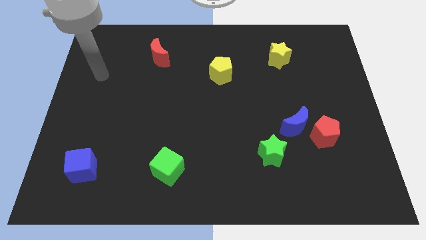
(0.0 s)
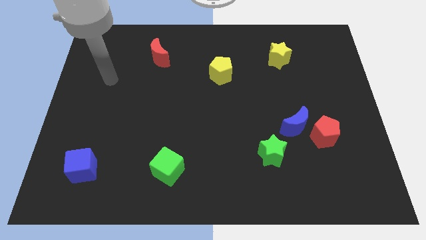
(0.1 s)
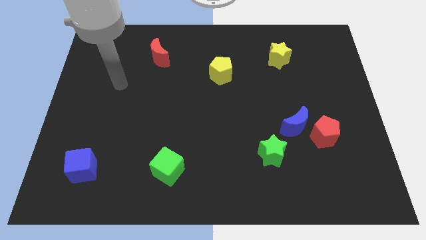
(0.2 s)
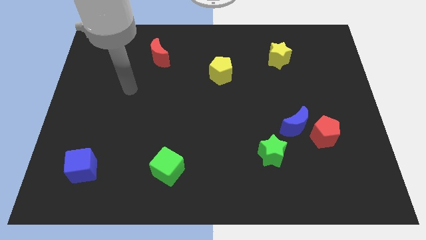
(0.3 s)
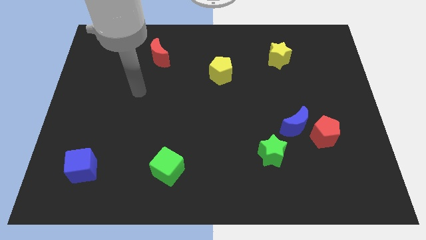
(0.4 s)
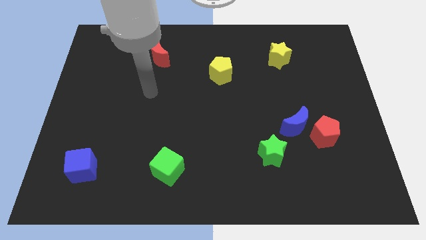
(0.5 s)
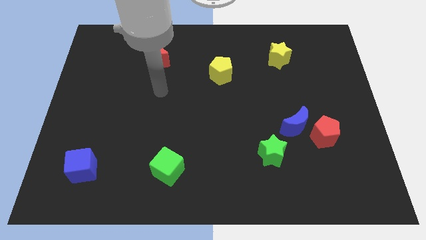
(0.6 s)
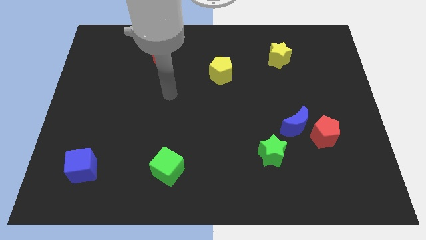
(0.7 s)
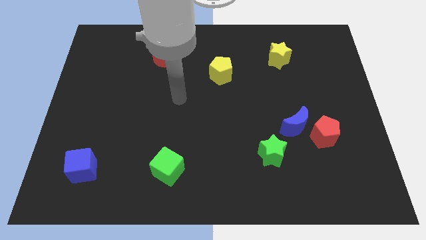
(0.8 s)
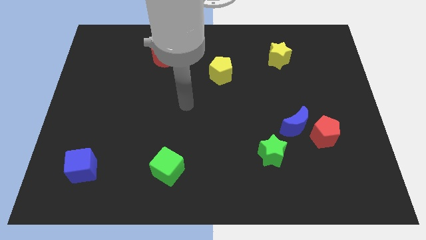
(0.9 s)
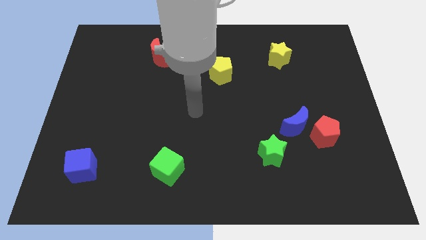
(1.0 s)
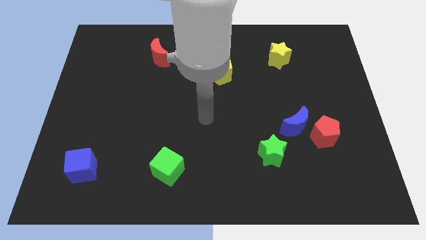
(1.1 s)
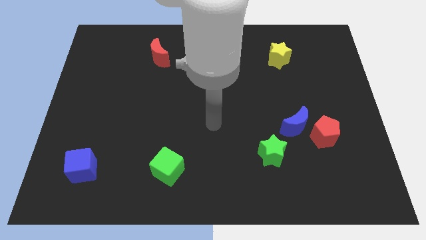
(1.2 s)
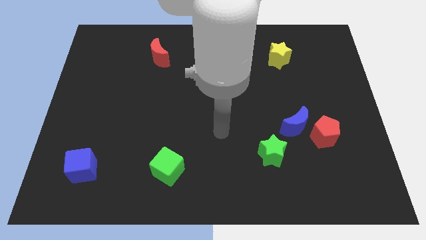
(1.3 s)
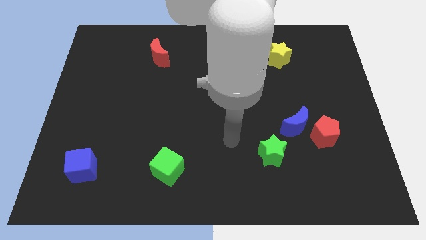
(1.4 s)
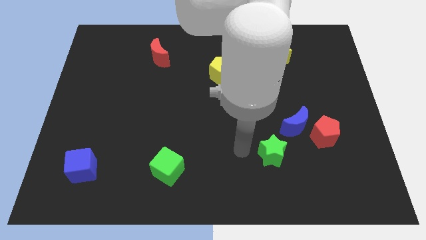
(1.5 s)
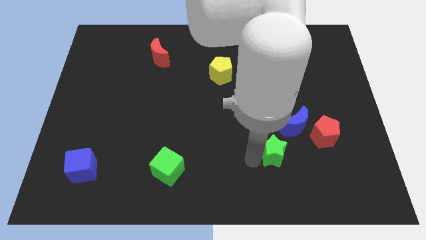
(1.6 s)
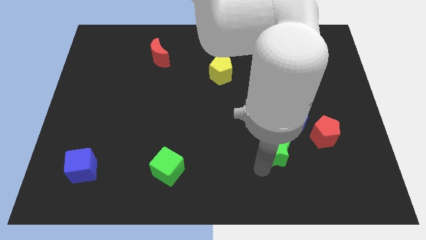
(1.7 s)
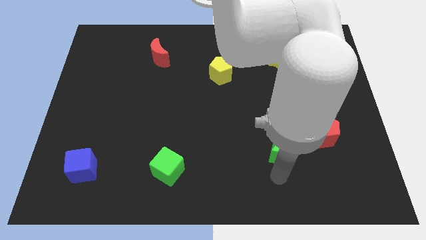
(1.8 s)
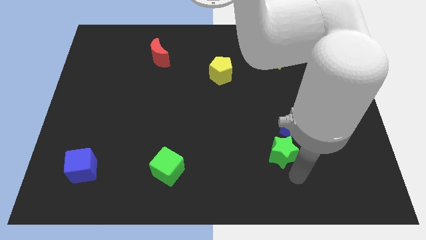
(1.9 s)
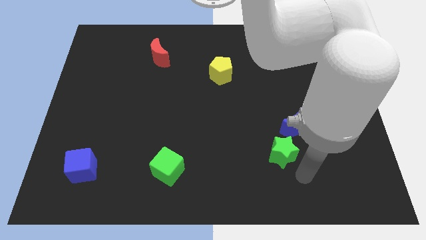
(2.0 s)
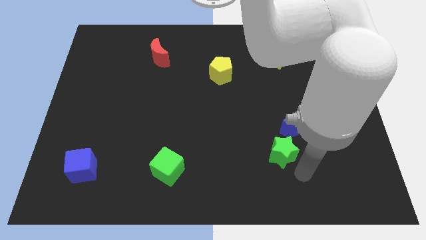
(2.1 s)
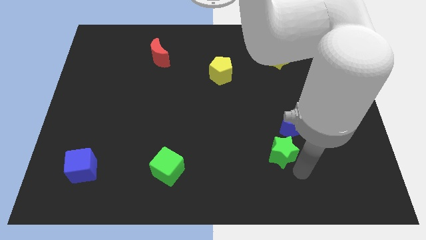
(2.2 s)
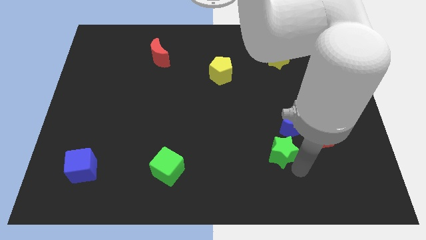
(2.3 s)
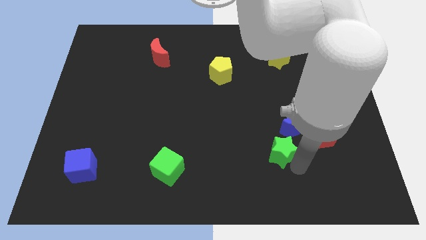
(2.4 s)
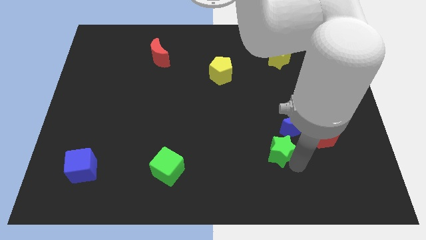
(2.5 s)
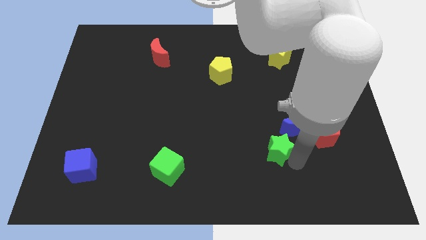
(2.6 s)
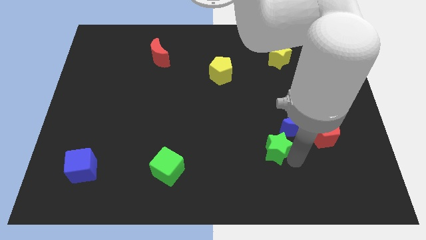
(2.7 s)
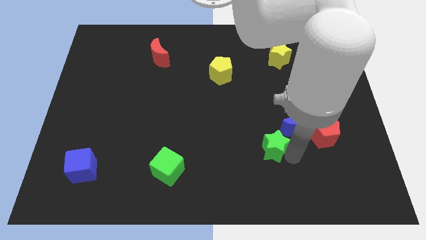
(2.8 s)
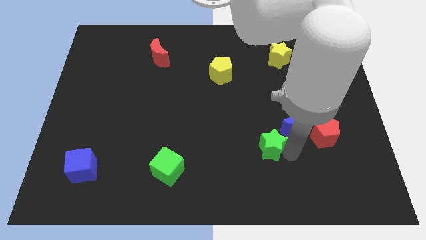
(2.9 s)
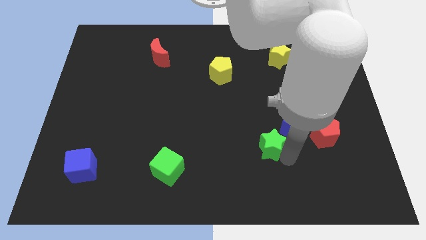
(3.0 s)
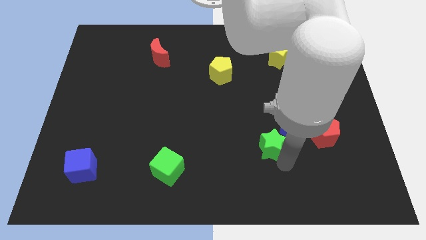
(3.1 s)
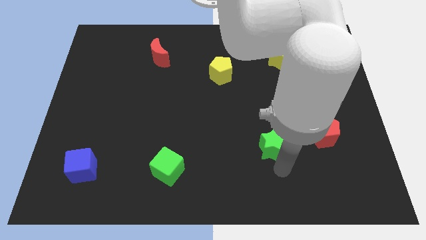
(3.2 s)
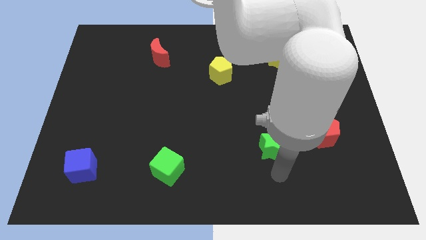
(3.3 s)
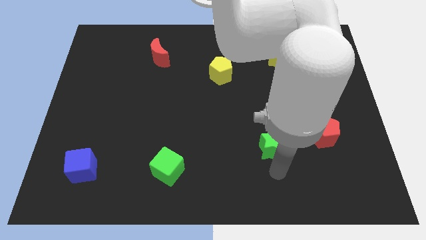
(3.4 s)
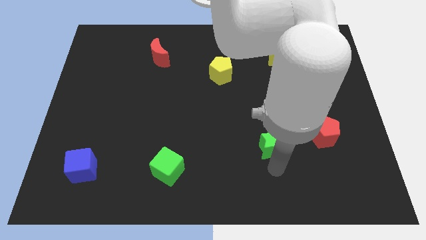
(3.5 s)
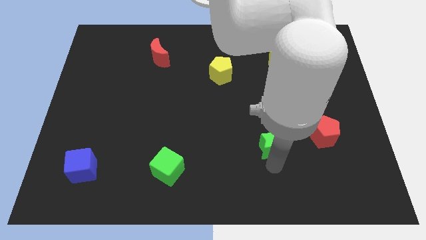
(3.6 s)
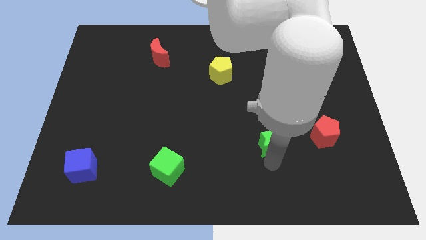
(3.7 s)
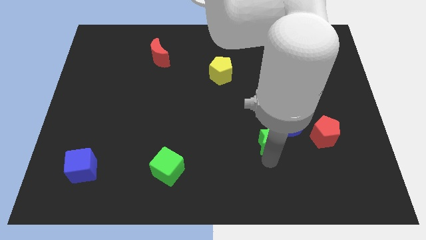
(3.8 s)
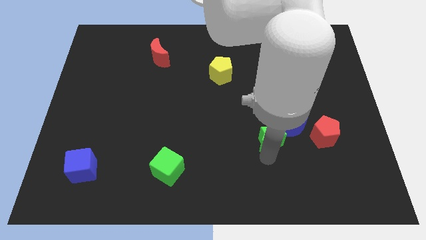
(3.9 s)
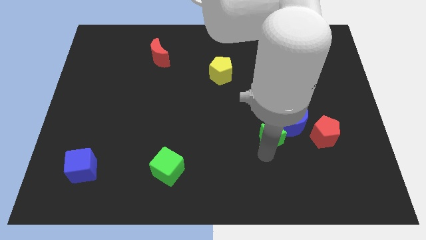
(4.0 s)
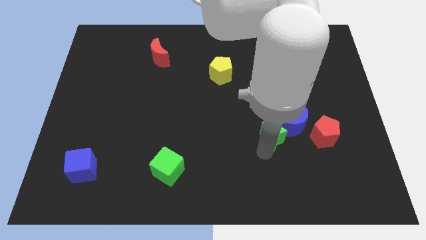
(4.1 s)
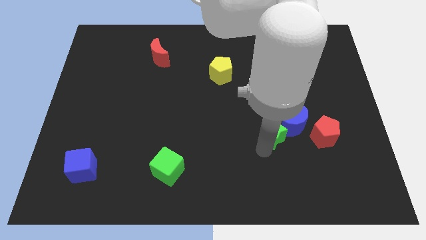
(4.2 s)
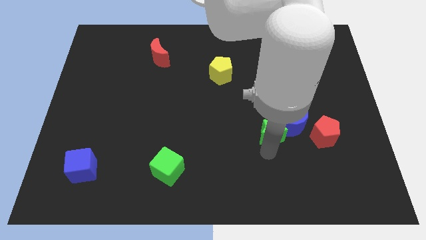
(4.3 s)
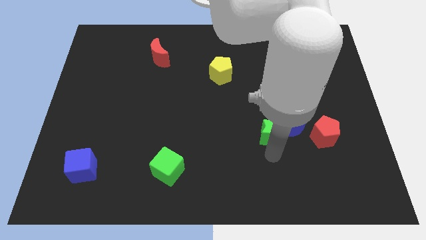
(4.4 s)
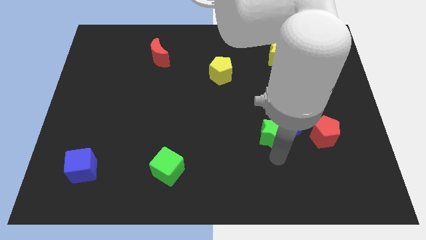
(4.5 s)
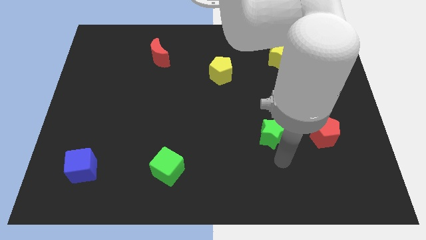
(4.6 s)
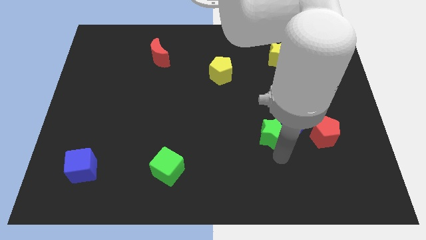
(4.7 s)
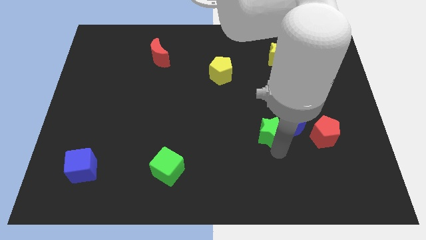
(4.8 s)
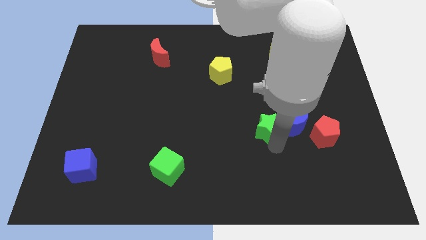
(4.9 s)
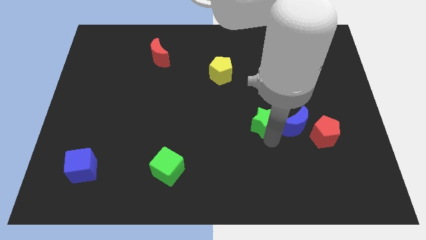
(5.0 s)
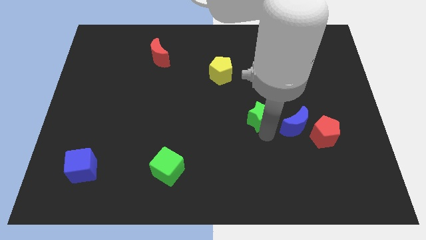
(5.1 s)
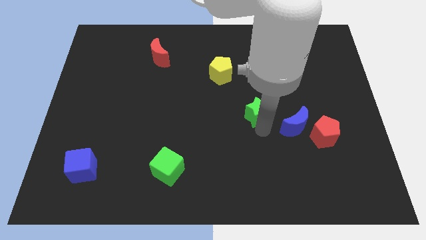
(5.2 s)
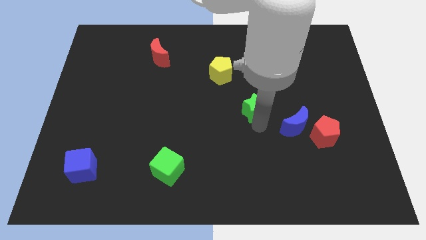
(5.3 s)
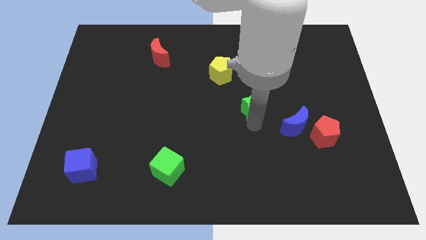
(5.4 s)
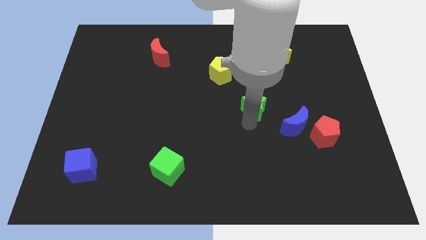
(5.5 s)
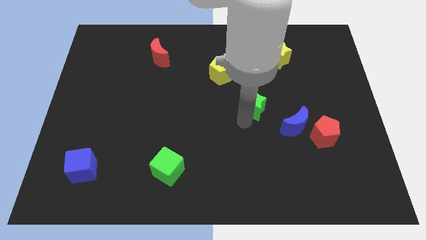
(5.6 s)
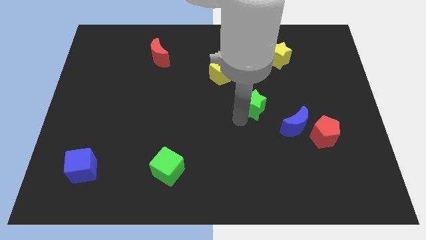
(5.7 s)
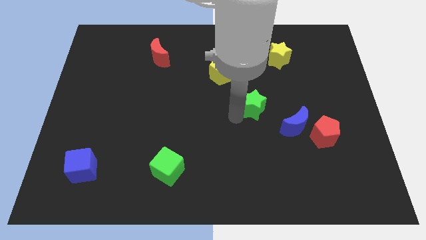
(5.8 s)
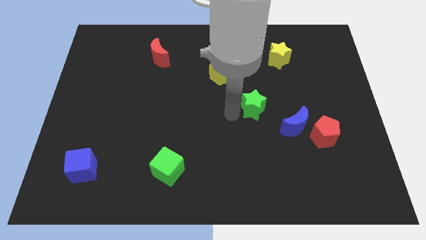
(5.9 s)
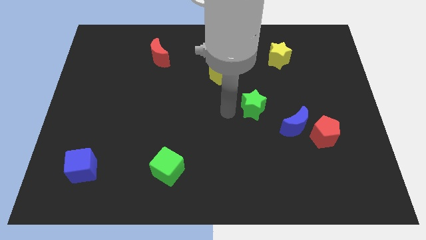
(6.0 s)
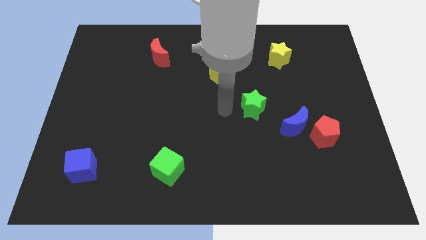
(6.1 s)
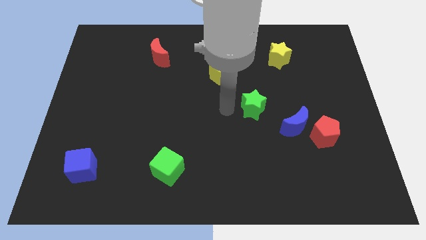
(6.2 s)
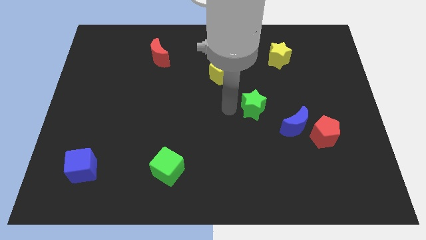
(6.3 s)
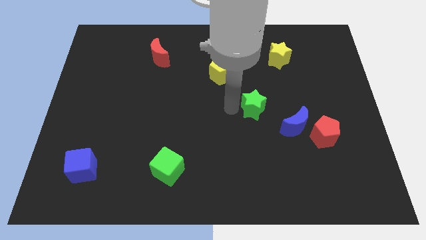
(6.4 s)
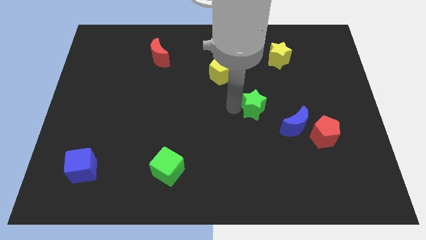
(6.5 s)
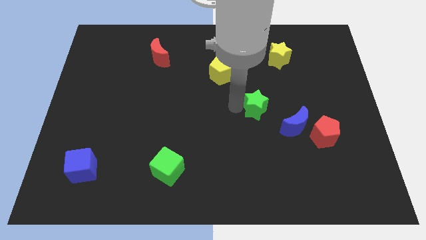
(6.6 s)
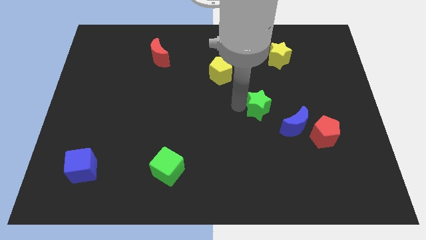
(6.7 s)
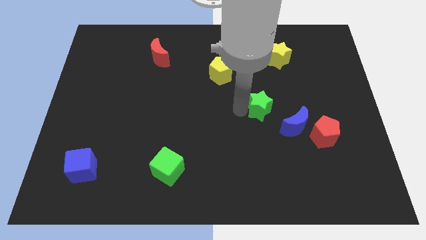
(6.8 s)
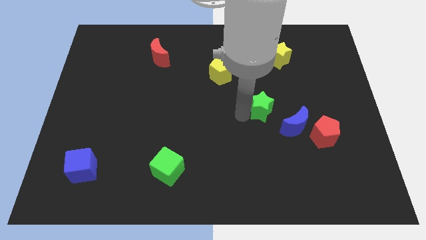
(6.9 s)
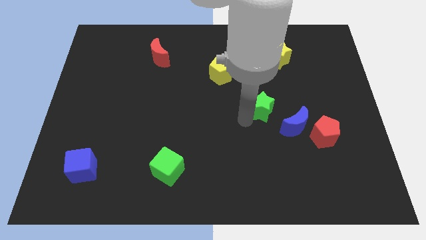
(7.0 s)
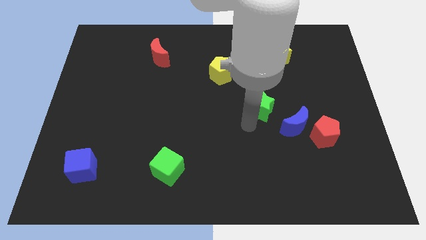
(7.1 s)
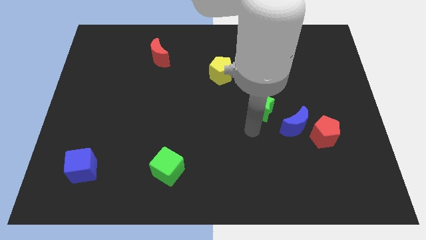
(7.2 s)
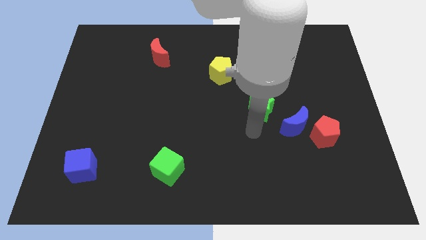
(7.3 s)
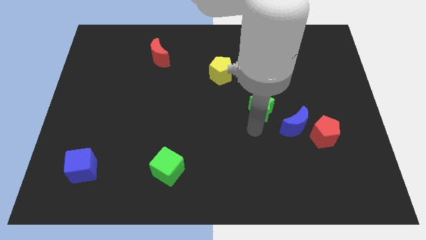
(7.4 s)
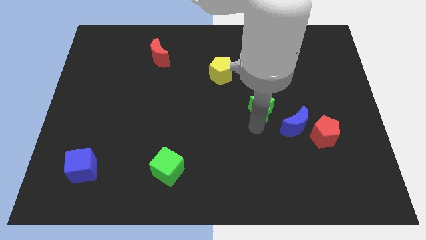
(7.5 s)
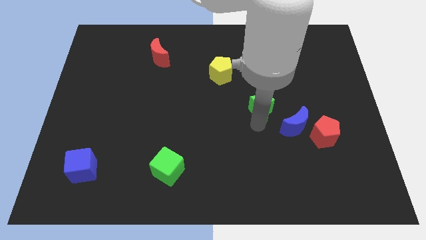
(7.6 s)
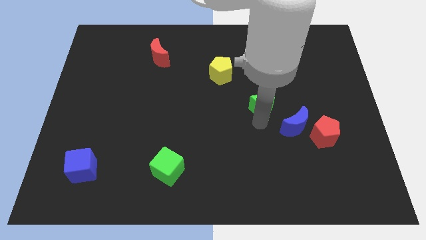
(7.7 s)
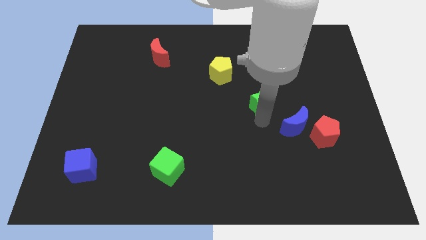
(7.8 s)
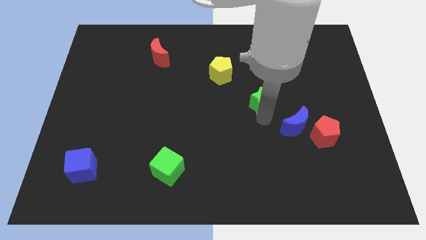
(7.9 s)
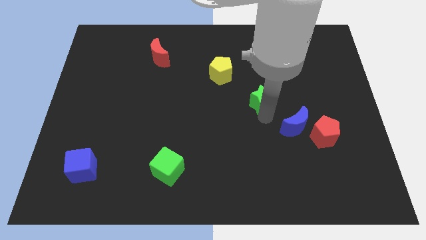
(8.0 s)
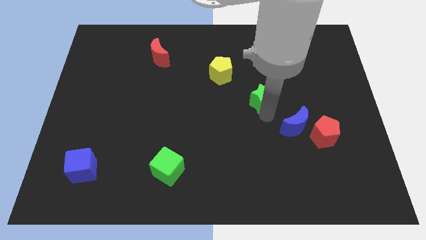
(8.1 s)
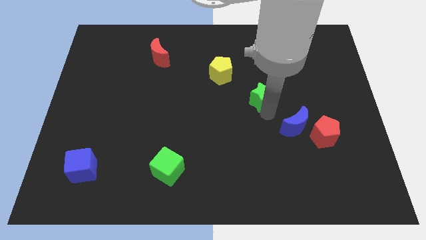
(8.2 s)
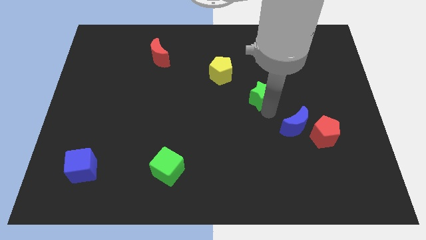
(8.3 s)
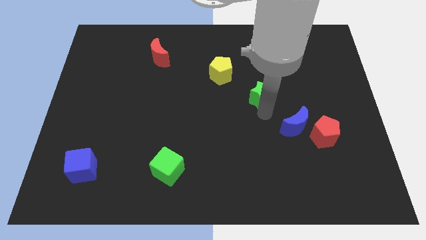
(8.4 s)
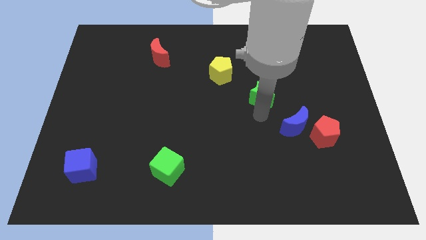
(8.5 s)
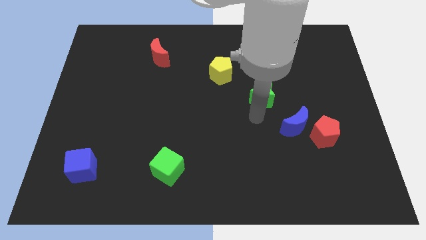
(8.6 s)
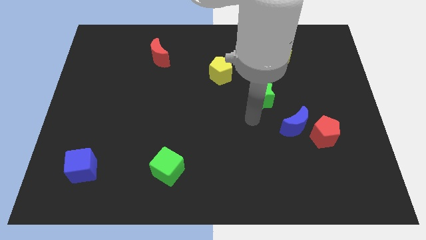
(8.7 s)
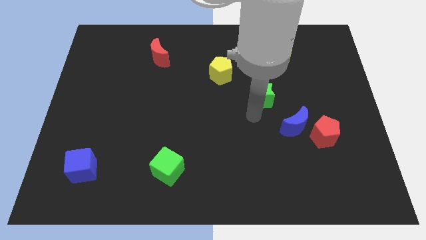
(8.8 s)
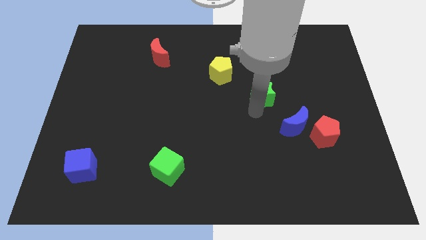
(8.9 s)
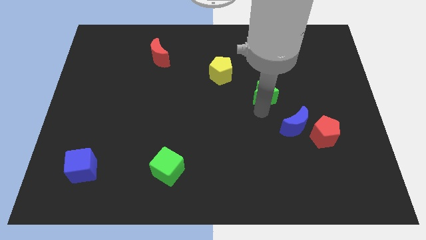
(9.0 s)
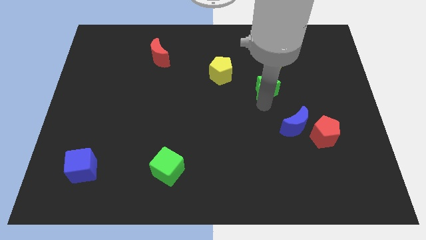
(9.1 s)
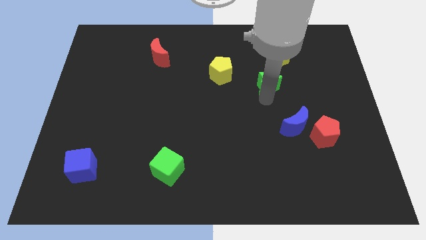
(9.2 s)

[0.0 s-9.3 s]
move the green star just right of the yellow pentagon
